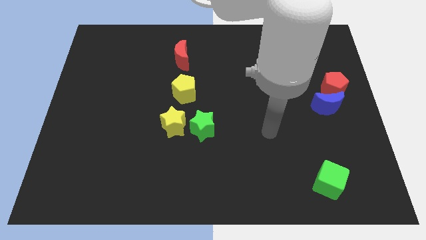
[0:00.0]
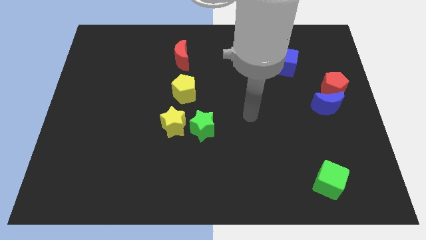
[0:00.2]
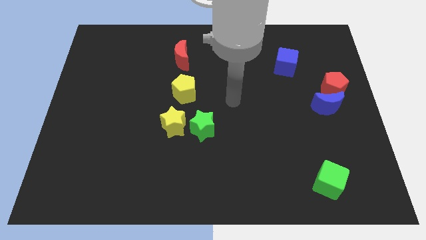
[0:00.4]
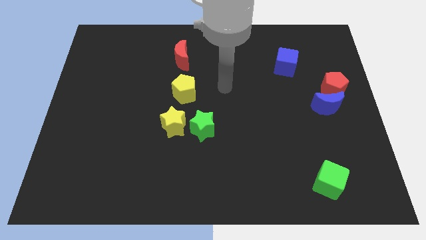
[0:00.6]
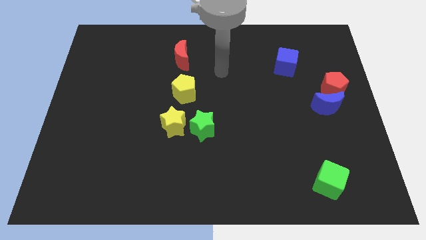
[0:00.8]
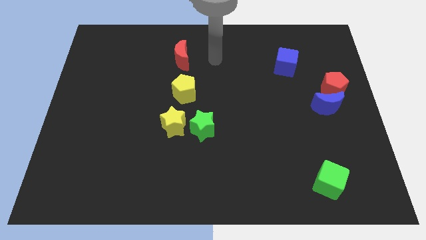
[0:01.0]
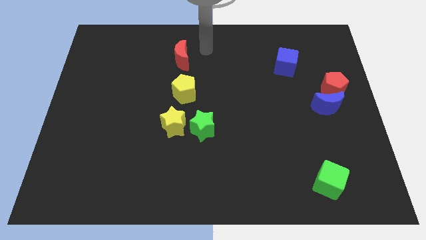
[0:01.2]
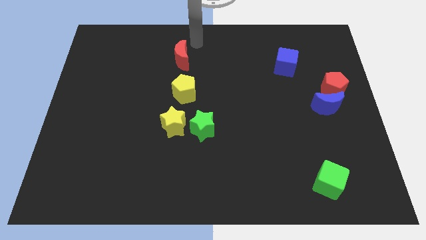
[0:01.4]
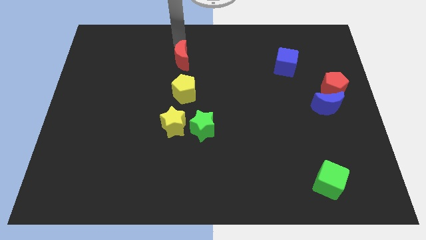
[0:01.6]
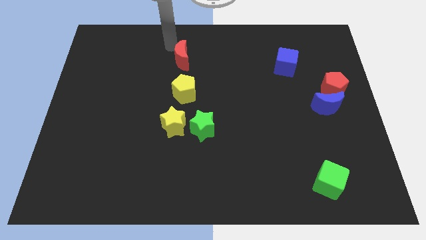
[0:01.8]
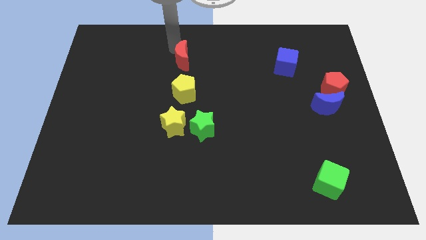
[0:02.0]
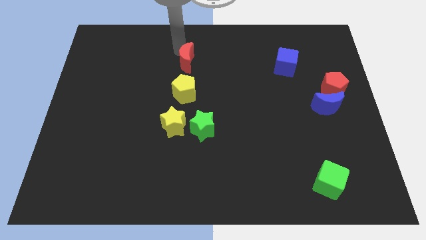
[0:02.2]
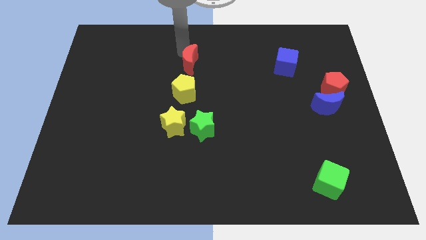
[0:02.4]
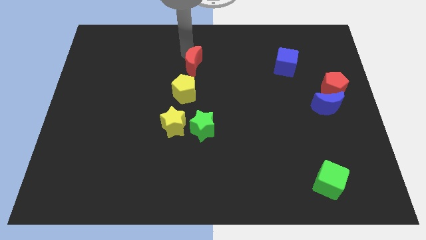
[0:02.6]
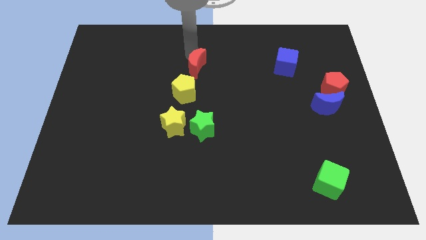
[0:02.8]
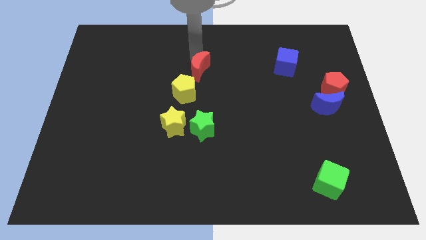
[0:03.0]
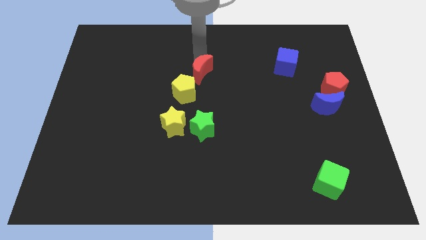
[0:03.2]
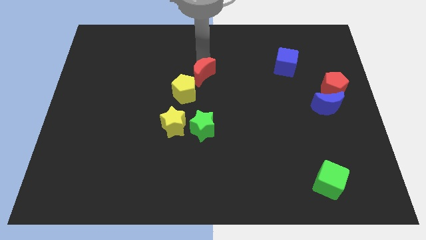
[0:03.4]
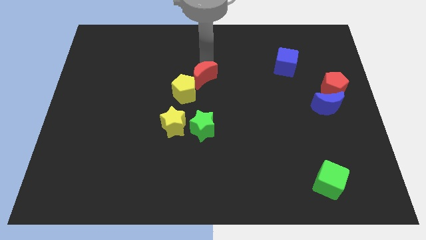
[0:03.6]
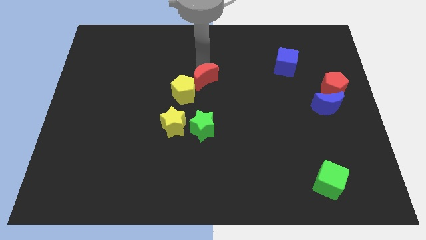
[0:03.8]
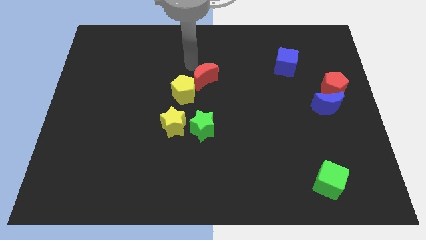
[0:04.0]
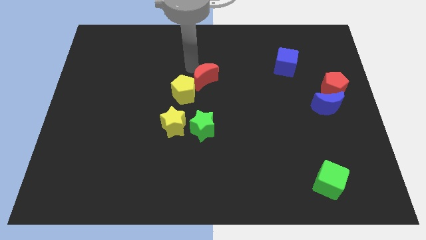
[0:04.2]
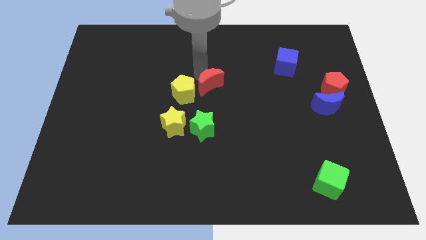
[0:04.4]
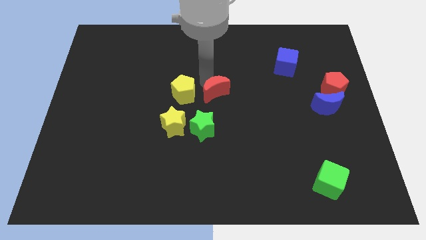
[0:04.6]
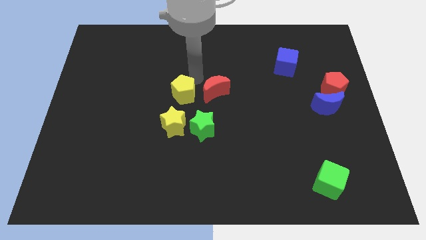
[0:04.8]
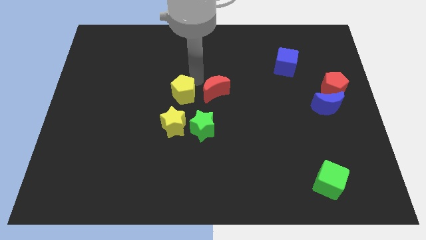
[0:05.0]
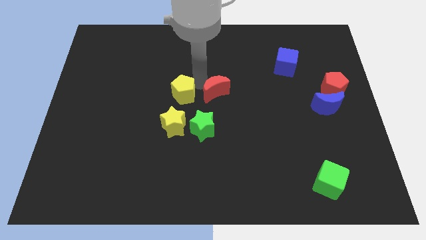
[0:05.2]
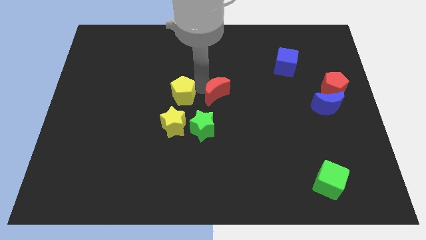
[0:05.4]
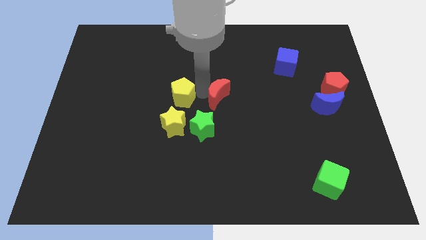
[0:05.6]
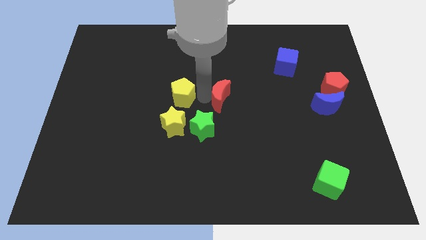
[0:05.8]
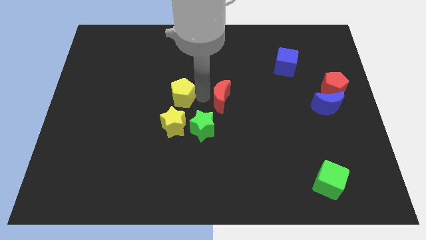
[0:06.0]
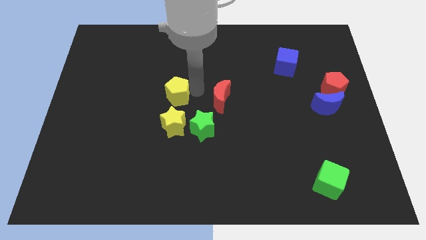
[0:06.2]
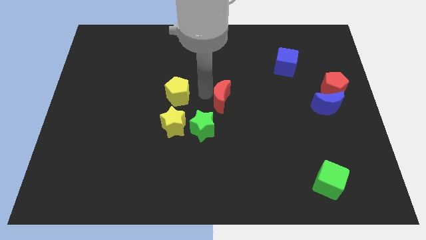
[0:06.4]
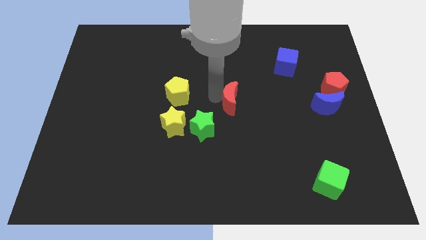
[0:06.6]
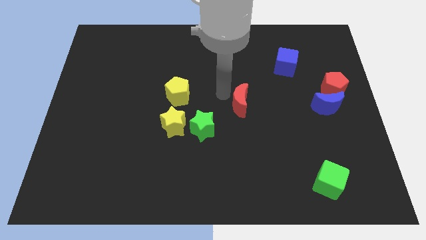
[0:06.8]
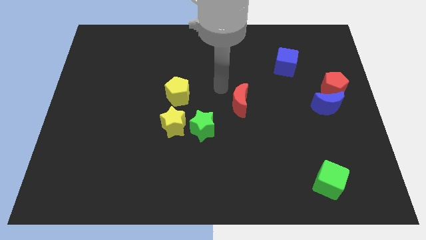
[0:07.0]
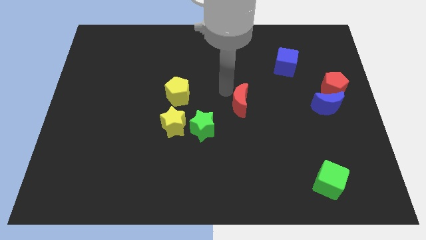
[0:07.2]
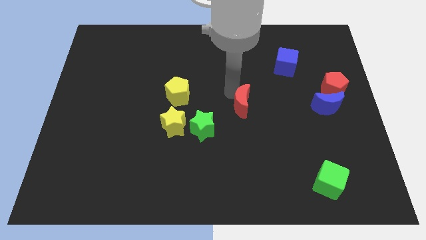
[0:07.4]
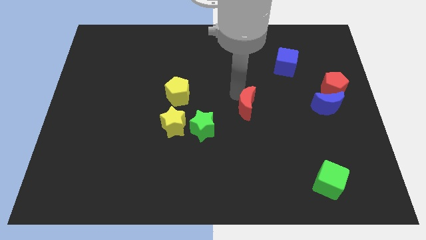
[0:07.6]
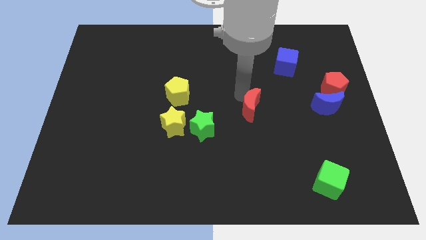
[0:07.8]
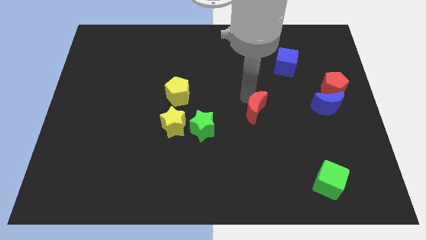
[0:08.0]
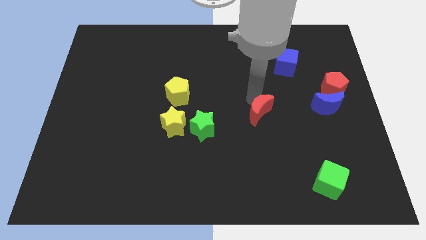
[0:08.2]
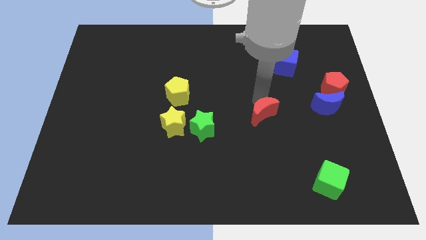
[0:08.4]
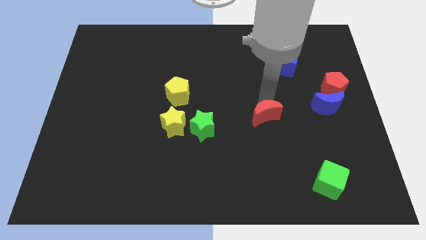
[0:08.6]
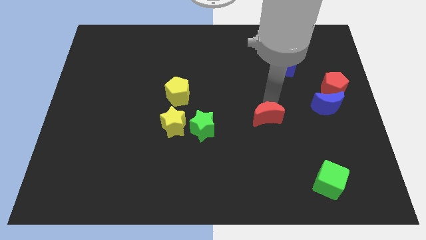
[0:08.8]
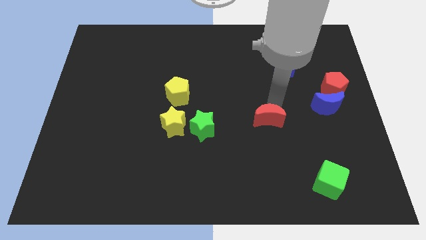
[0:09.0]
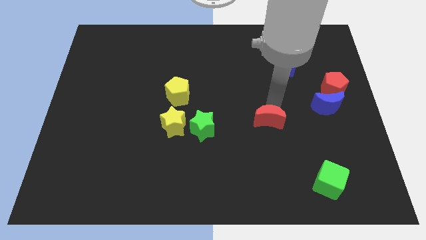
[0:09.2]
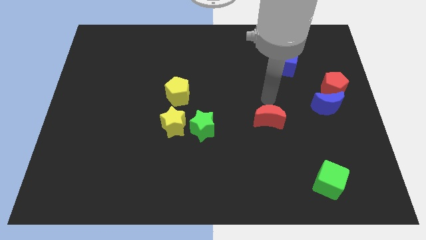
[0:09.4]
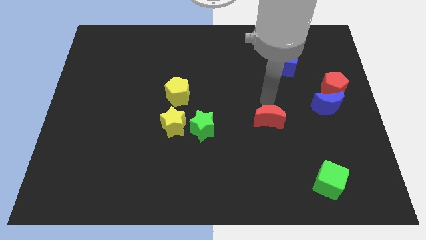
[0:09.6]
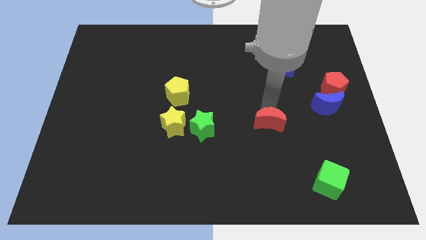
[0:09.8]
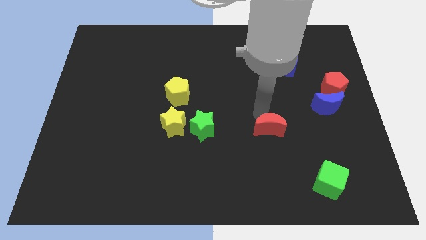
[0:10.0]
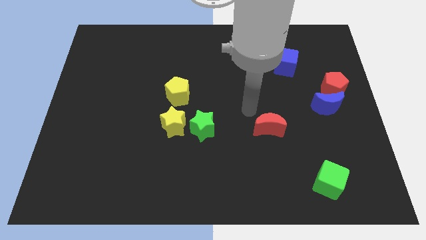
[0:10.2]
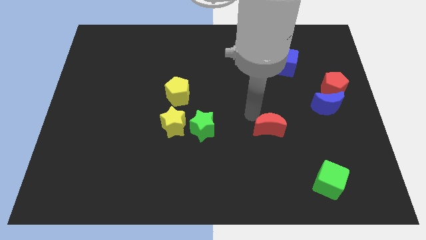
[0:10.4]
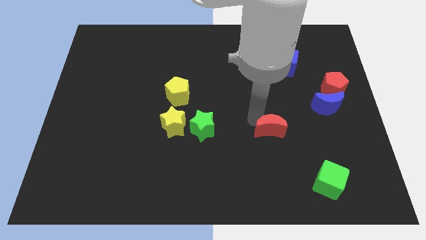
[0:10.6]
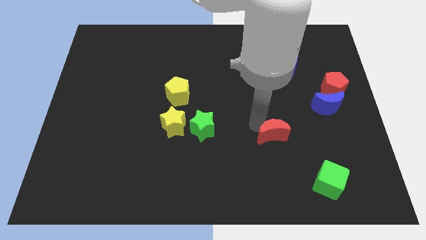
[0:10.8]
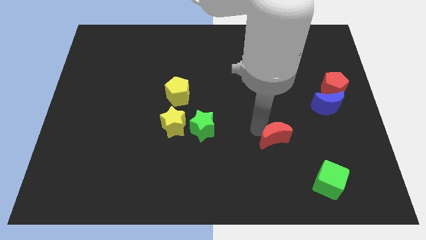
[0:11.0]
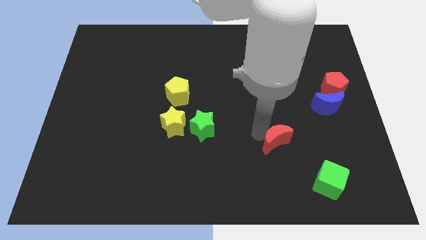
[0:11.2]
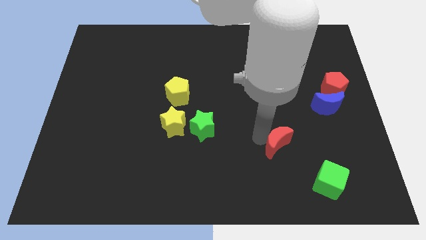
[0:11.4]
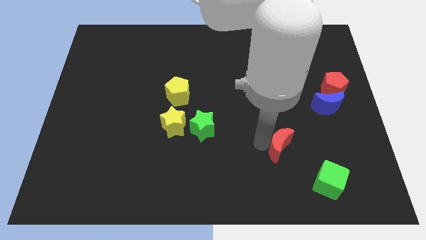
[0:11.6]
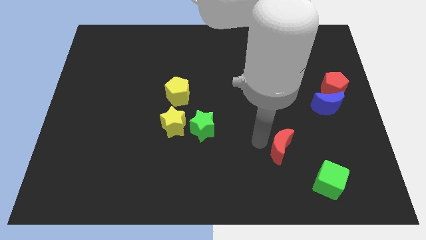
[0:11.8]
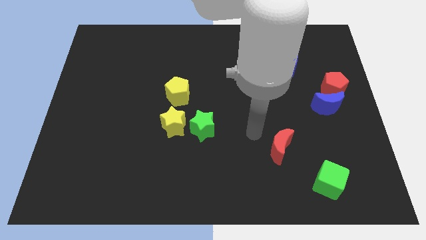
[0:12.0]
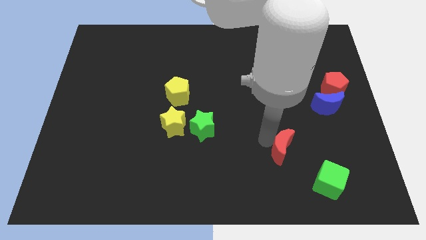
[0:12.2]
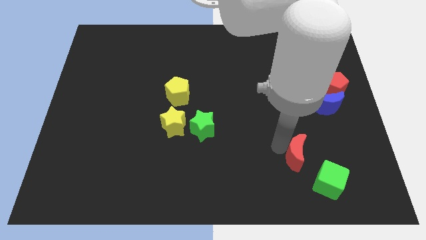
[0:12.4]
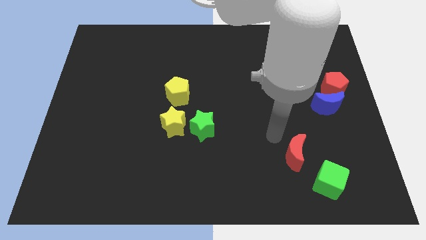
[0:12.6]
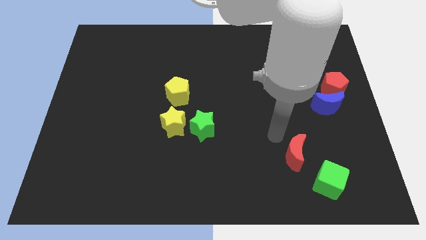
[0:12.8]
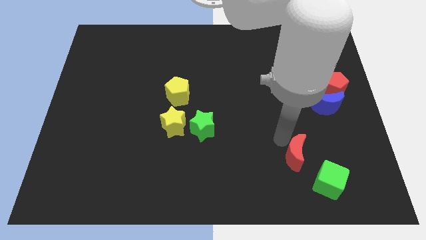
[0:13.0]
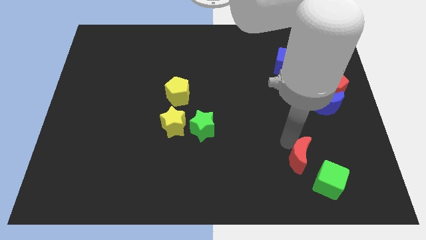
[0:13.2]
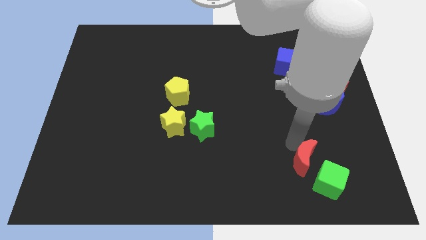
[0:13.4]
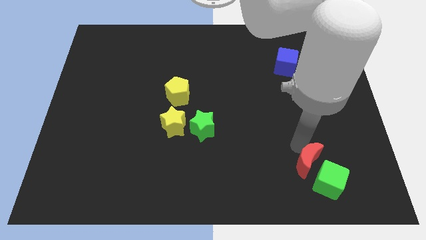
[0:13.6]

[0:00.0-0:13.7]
move the red moon close to the green cube
